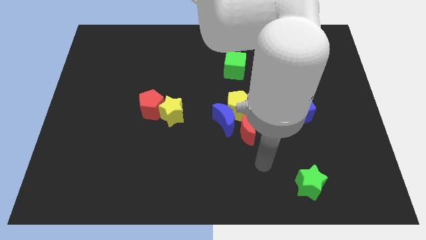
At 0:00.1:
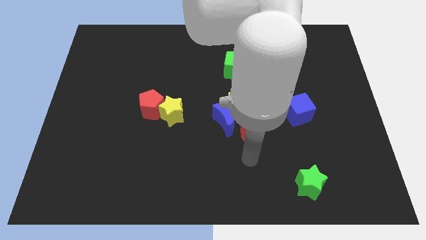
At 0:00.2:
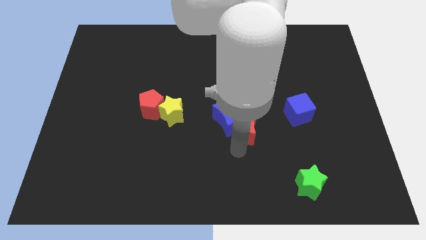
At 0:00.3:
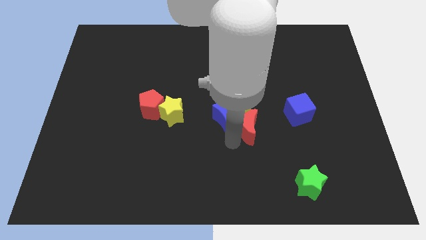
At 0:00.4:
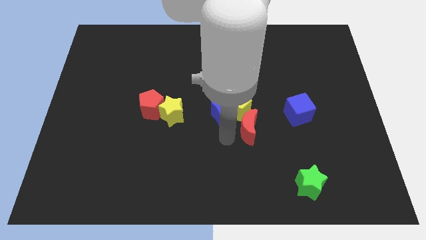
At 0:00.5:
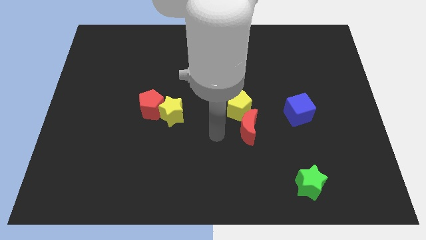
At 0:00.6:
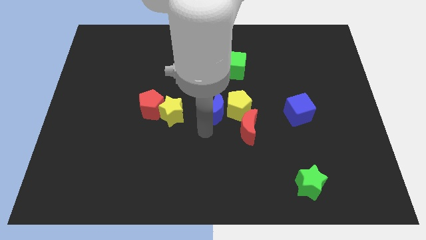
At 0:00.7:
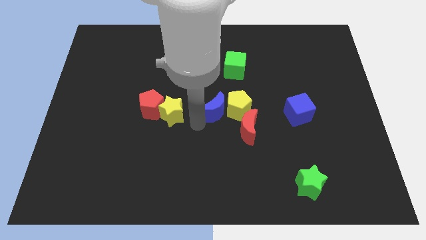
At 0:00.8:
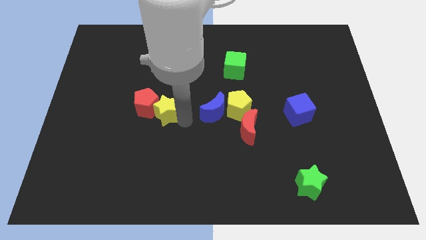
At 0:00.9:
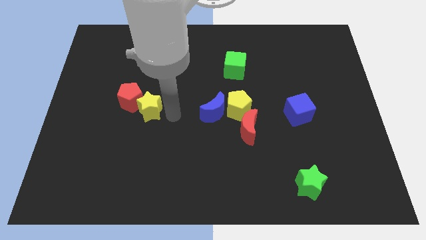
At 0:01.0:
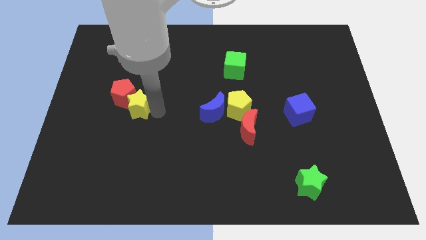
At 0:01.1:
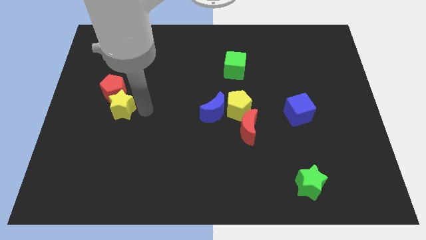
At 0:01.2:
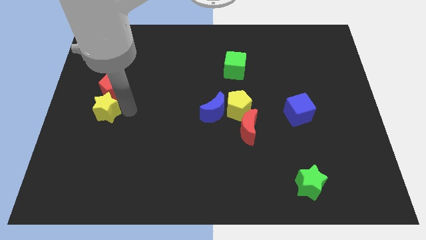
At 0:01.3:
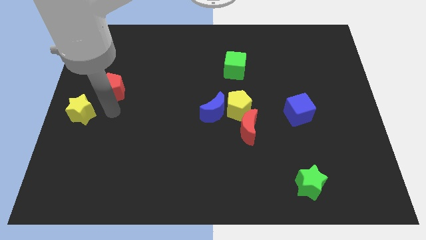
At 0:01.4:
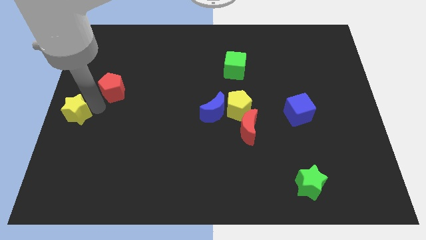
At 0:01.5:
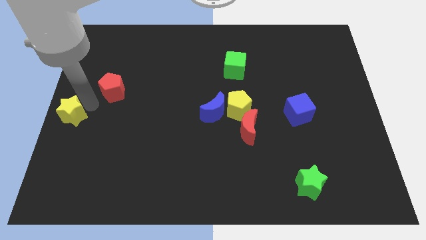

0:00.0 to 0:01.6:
pull the red pentagon apart from the yellow star

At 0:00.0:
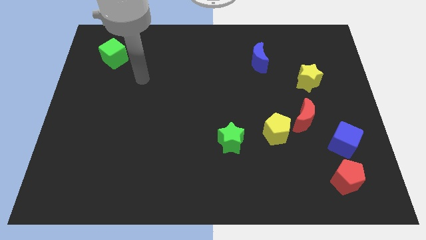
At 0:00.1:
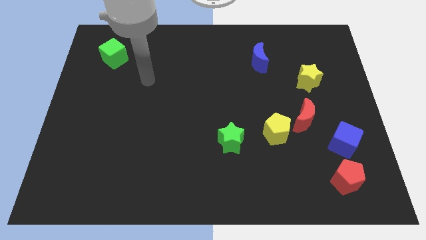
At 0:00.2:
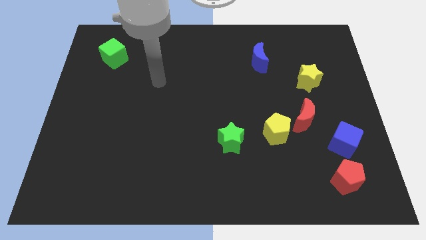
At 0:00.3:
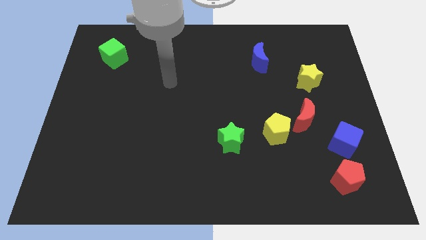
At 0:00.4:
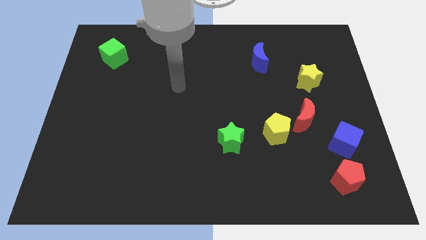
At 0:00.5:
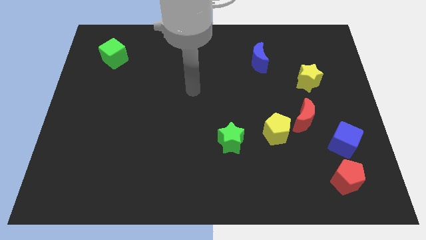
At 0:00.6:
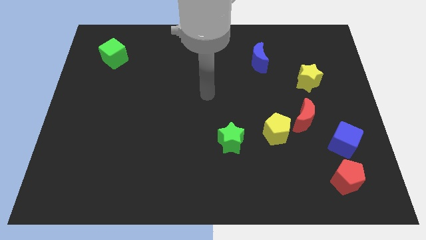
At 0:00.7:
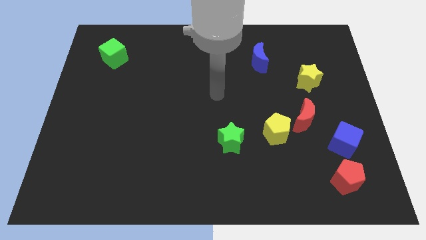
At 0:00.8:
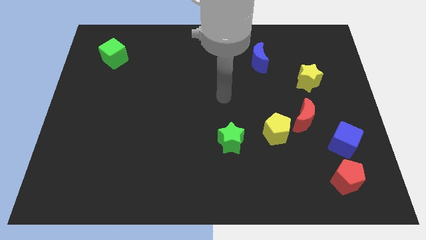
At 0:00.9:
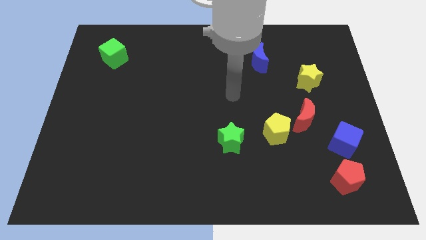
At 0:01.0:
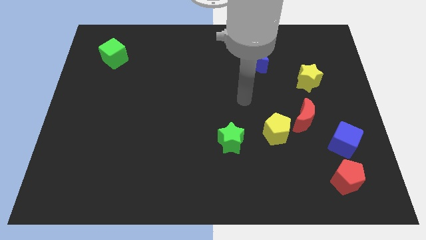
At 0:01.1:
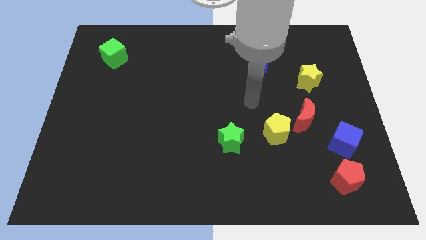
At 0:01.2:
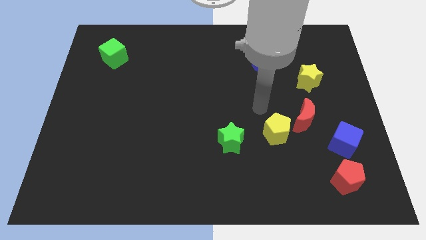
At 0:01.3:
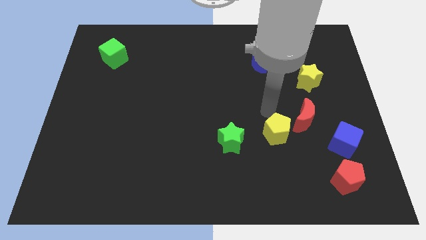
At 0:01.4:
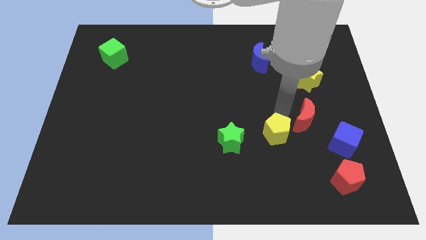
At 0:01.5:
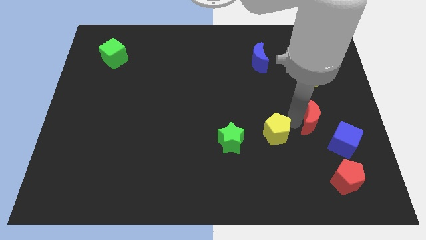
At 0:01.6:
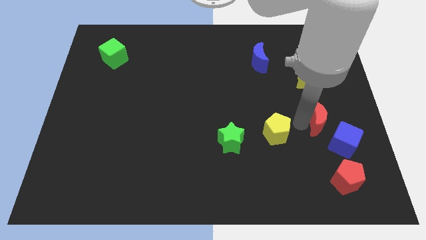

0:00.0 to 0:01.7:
separate the yellow pentagon from the red moon

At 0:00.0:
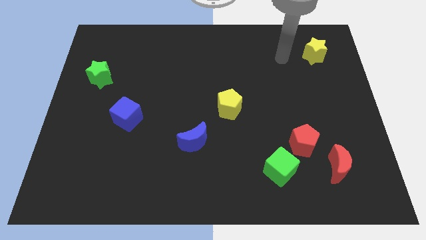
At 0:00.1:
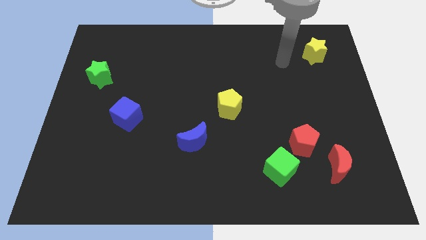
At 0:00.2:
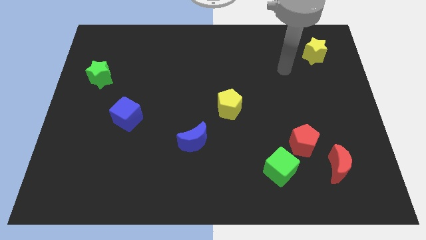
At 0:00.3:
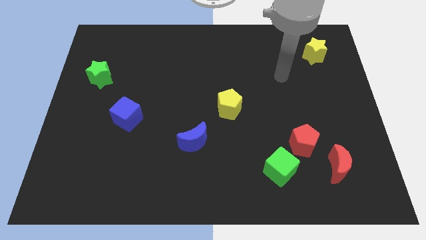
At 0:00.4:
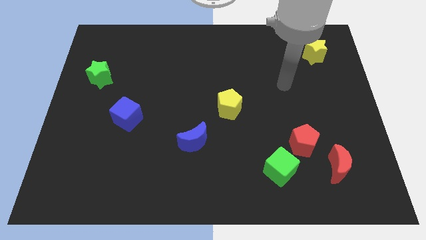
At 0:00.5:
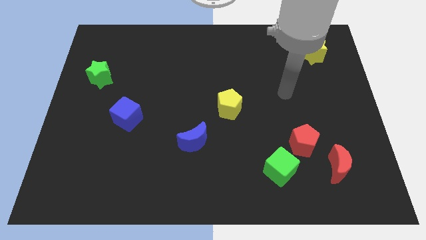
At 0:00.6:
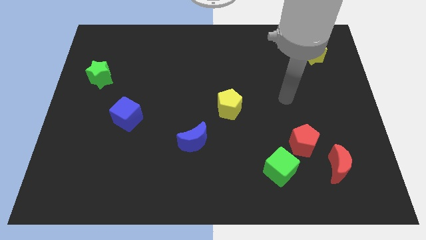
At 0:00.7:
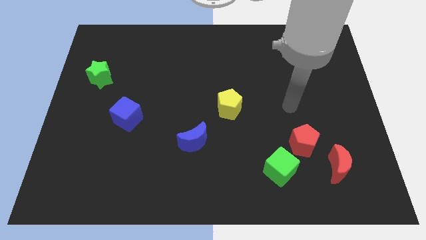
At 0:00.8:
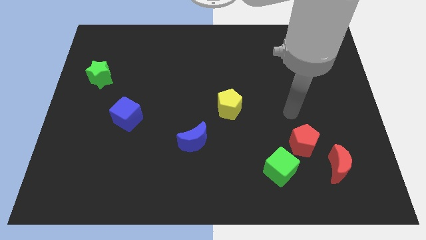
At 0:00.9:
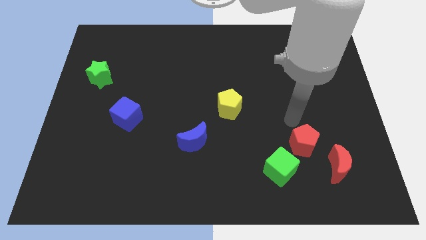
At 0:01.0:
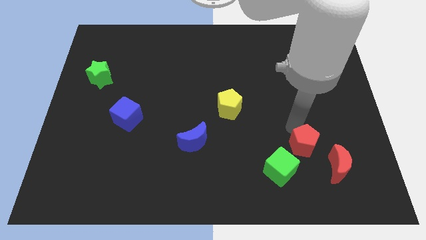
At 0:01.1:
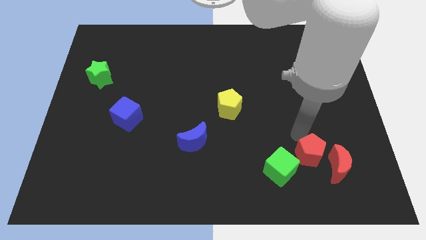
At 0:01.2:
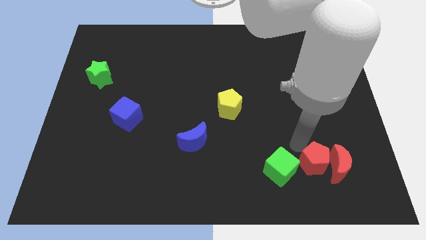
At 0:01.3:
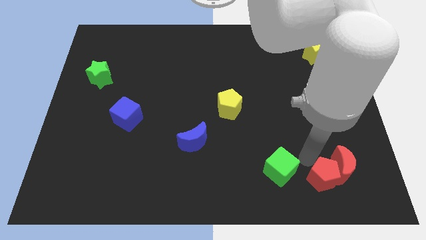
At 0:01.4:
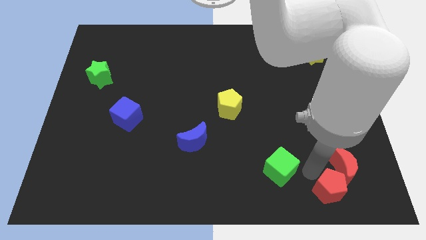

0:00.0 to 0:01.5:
separate the green cube from the red pentagon

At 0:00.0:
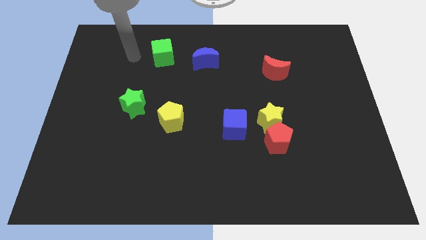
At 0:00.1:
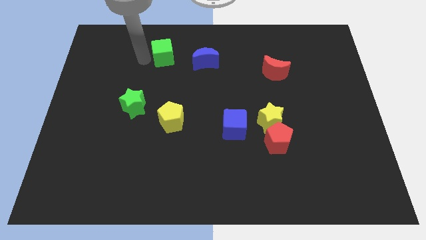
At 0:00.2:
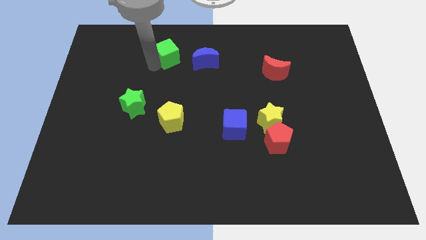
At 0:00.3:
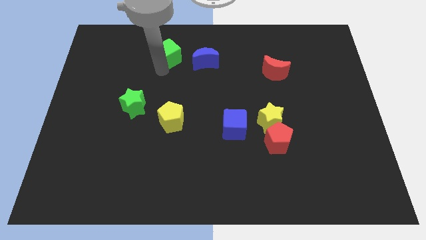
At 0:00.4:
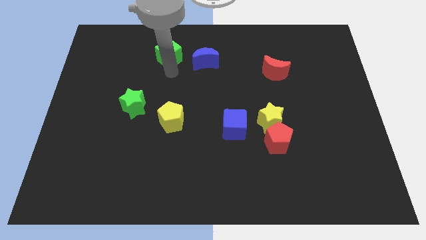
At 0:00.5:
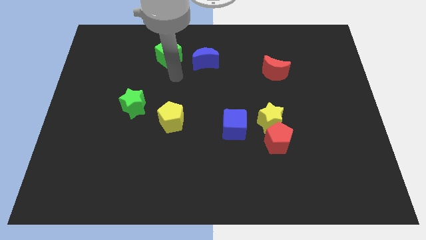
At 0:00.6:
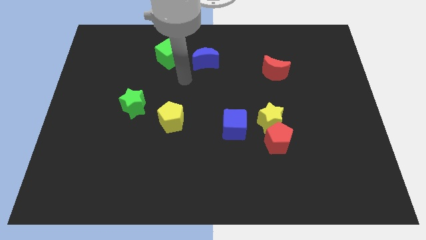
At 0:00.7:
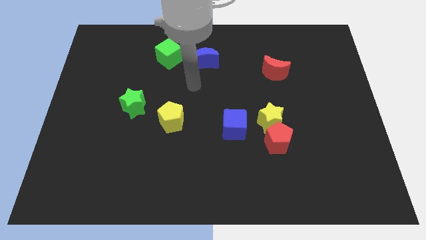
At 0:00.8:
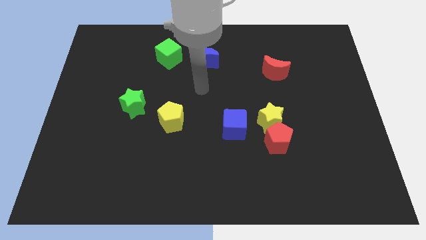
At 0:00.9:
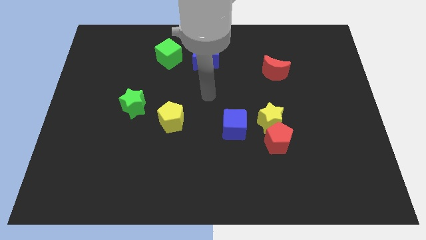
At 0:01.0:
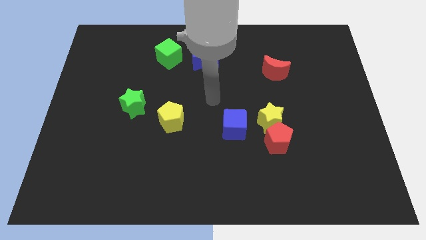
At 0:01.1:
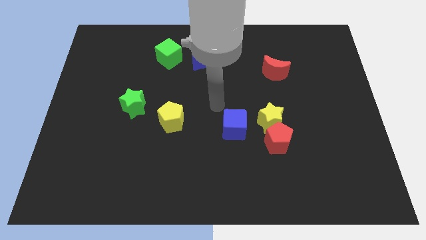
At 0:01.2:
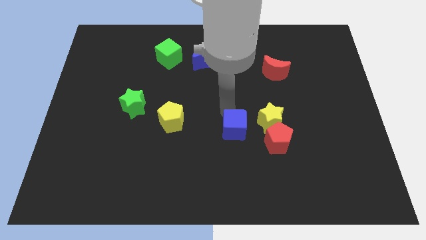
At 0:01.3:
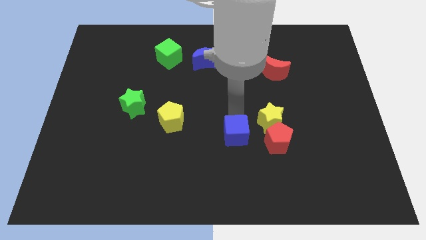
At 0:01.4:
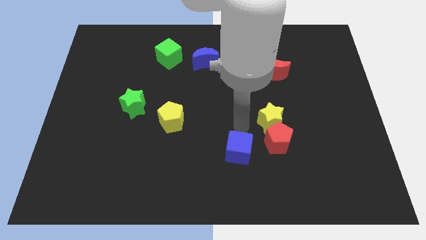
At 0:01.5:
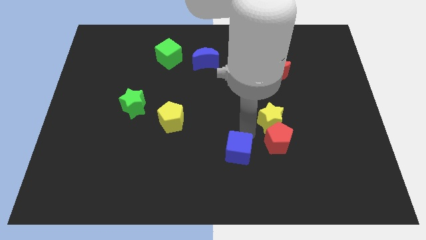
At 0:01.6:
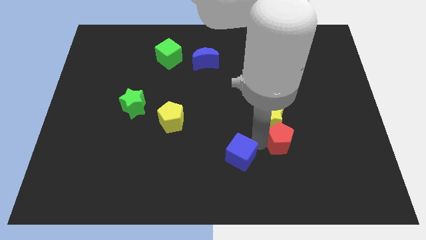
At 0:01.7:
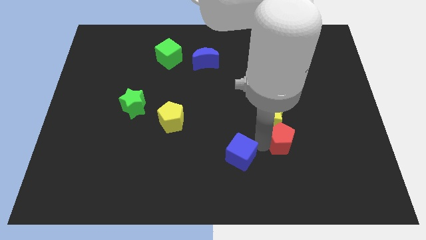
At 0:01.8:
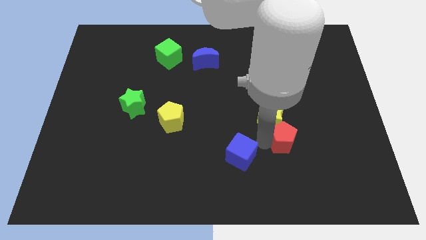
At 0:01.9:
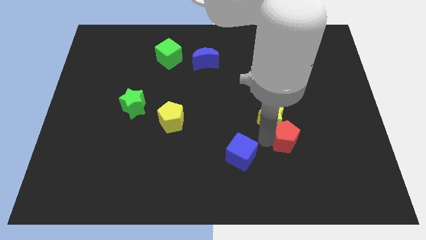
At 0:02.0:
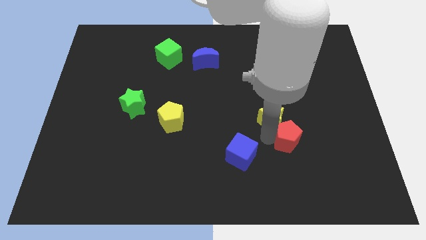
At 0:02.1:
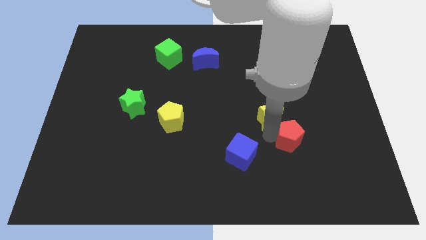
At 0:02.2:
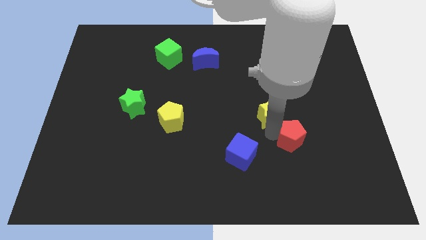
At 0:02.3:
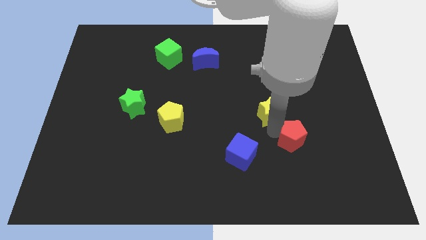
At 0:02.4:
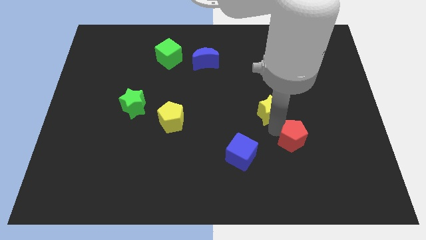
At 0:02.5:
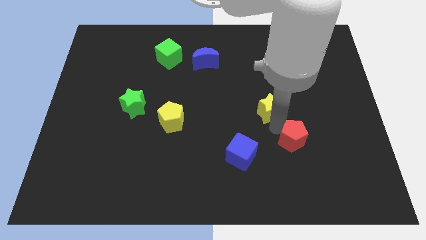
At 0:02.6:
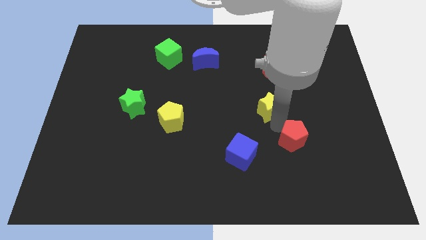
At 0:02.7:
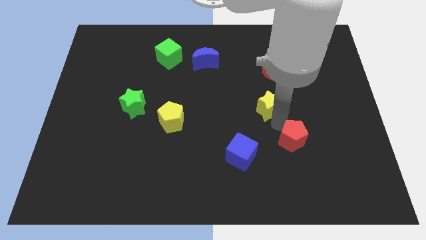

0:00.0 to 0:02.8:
pull the yellow star apart from the red pentagon and blue cube

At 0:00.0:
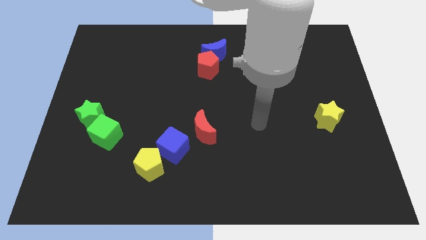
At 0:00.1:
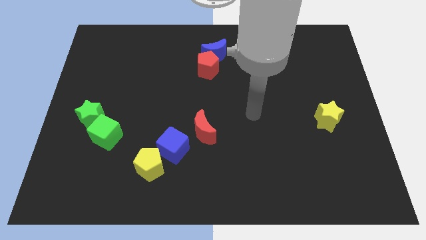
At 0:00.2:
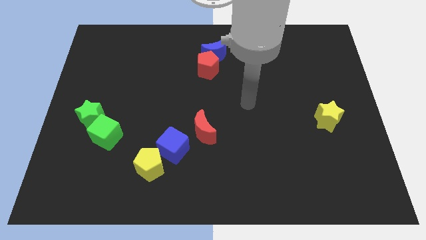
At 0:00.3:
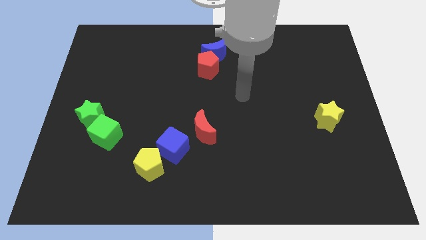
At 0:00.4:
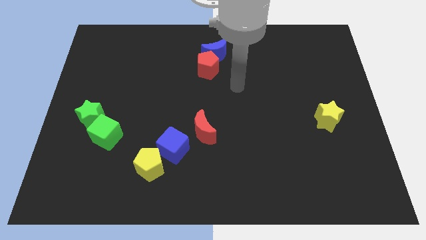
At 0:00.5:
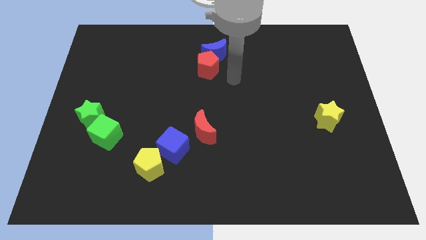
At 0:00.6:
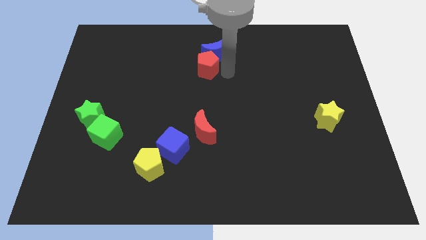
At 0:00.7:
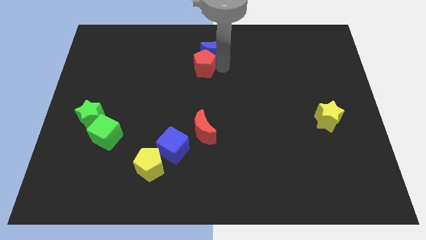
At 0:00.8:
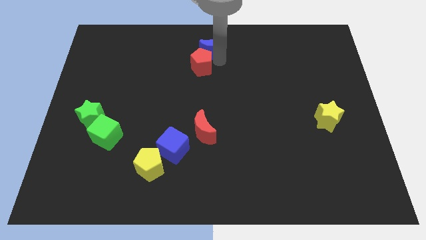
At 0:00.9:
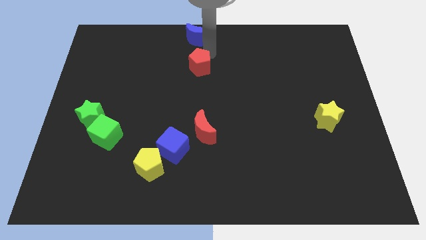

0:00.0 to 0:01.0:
separate the red pentagon from the blue moon

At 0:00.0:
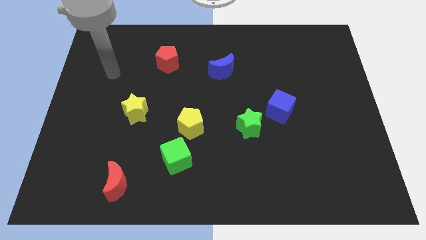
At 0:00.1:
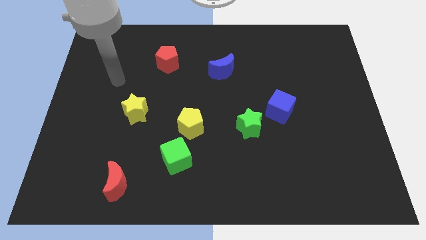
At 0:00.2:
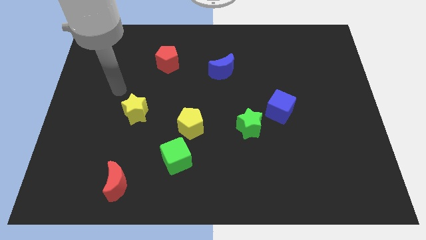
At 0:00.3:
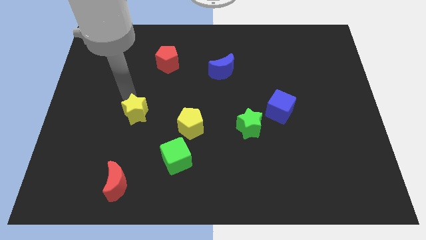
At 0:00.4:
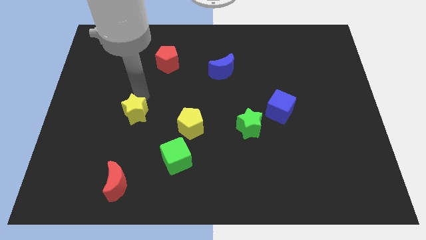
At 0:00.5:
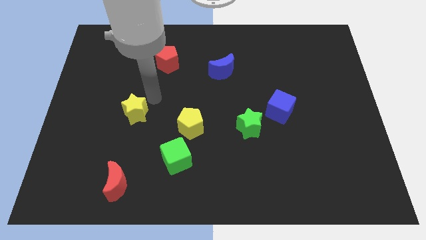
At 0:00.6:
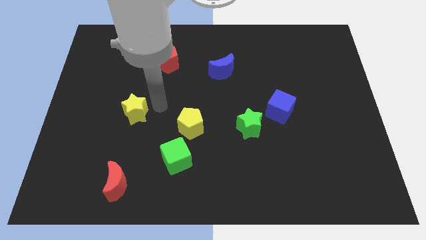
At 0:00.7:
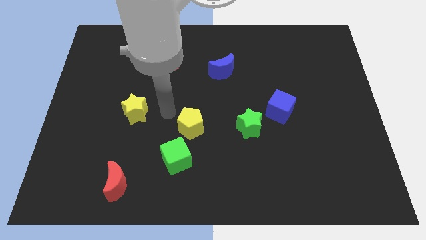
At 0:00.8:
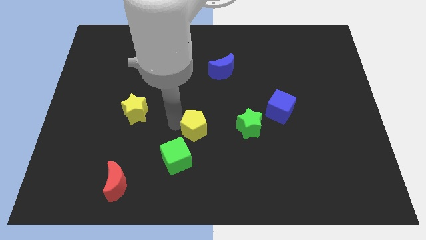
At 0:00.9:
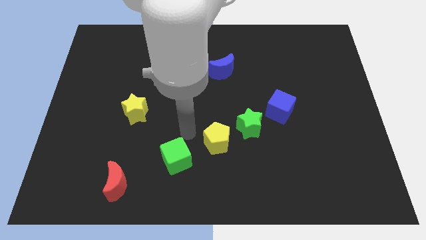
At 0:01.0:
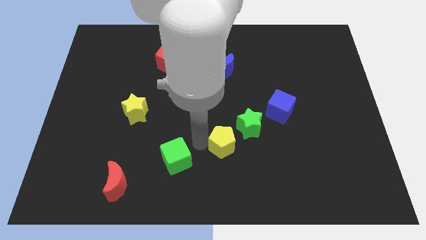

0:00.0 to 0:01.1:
separate the green cube from the yellow pentagon
